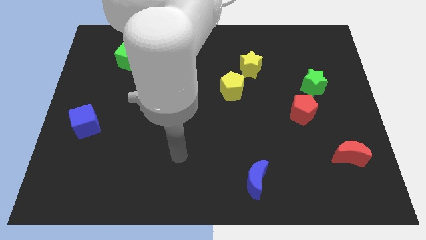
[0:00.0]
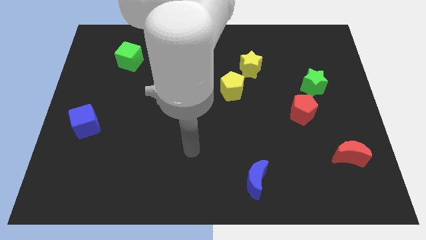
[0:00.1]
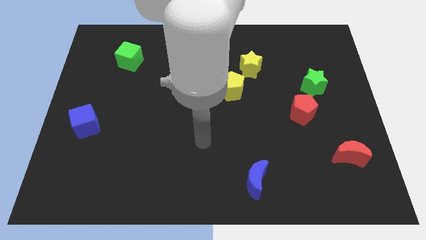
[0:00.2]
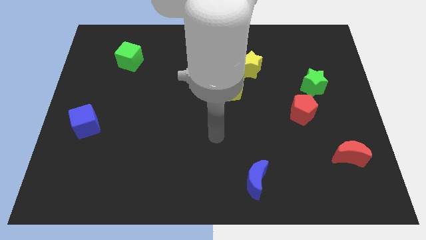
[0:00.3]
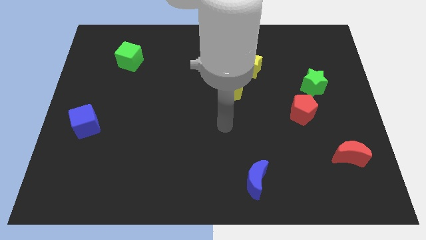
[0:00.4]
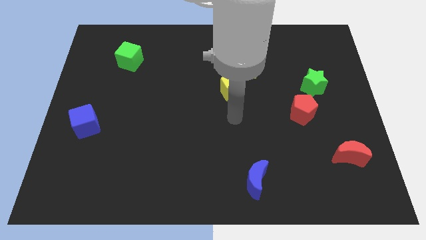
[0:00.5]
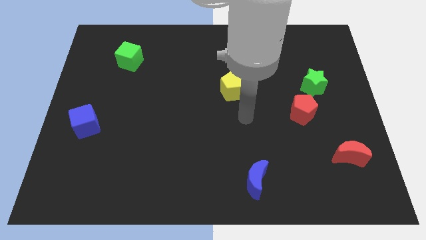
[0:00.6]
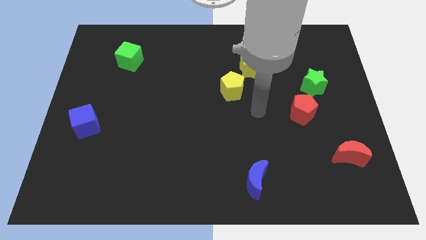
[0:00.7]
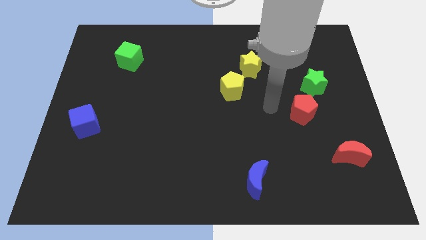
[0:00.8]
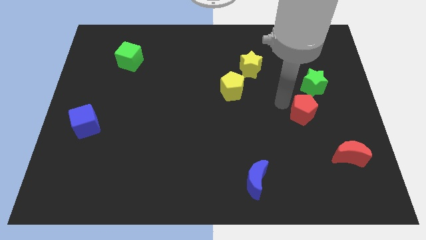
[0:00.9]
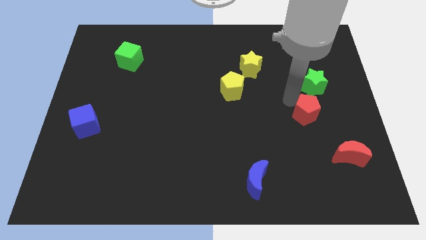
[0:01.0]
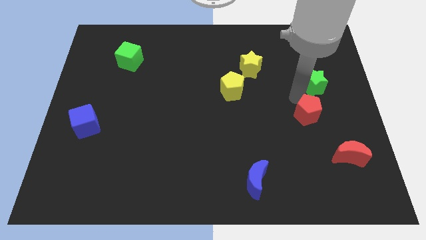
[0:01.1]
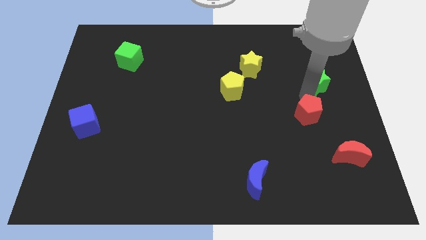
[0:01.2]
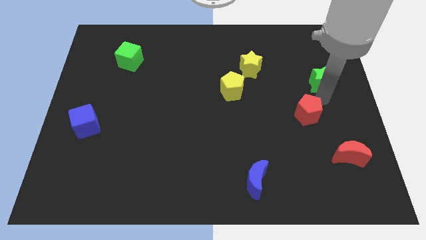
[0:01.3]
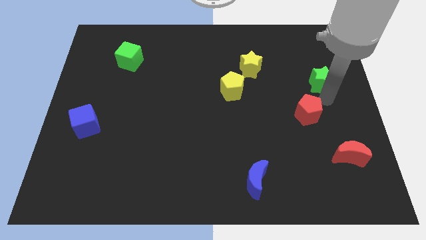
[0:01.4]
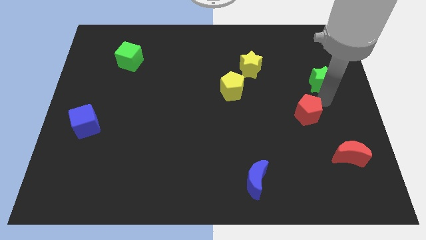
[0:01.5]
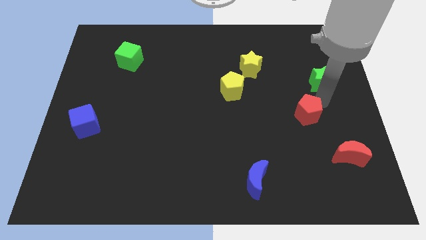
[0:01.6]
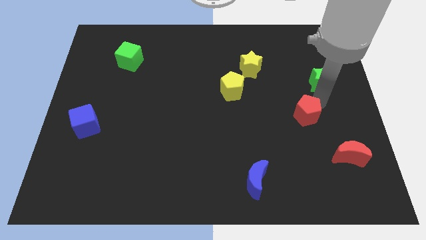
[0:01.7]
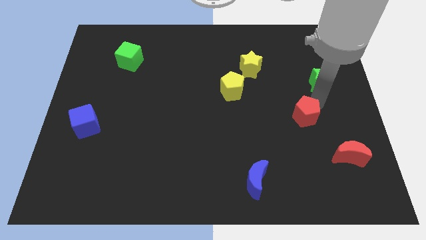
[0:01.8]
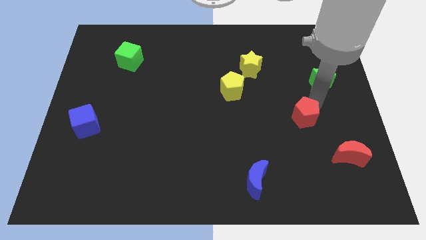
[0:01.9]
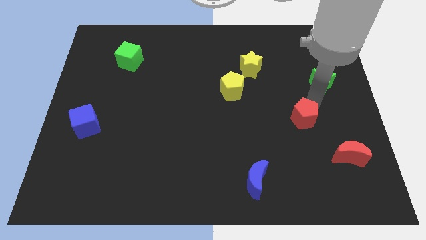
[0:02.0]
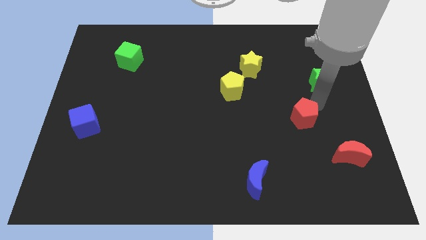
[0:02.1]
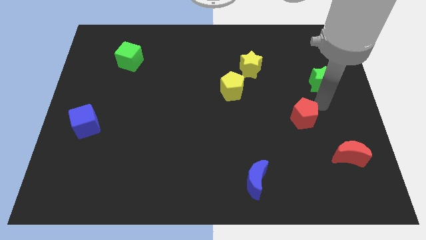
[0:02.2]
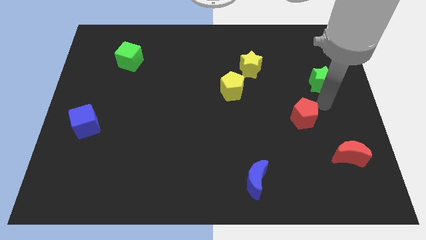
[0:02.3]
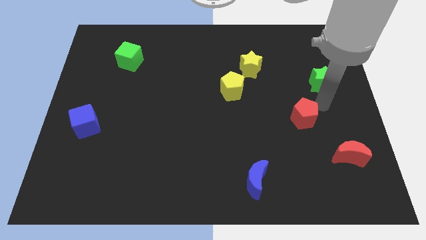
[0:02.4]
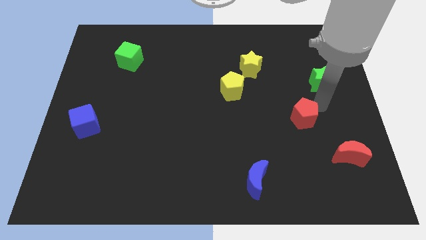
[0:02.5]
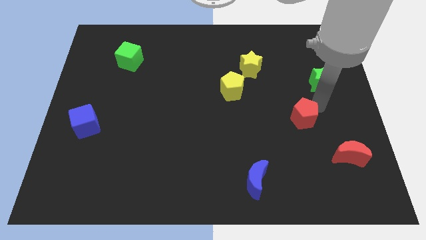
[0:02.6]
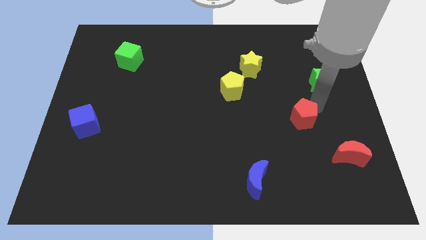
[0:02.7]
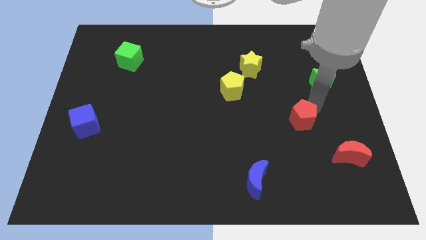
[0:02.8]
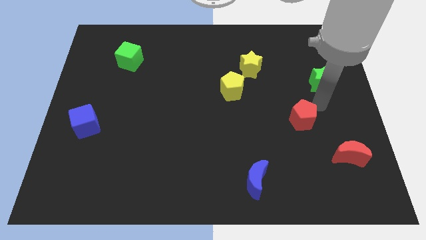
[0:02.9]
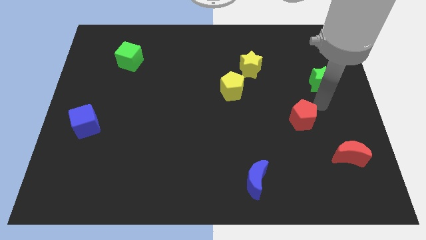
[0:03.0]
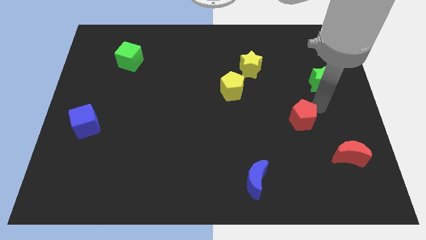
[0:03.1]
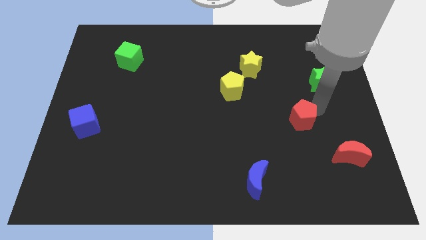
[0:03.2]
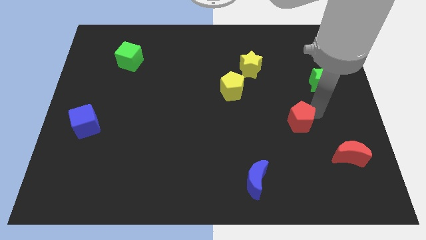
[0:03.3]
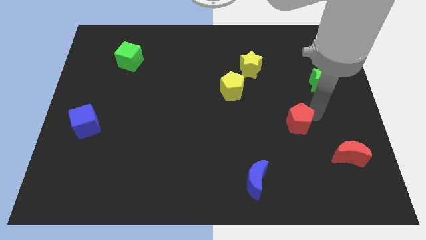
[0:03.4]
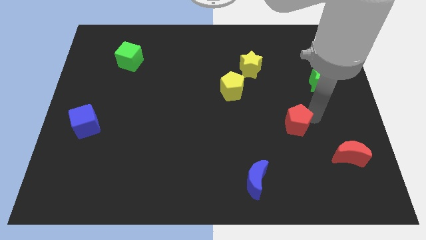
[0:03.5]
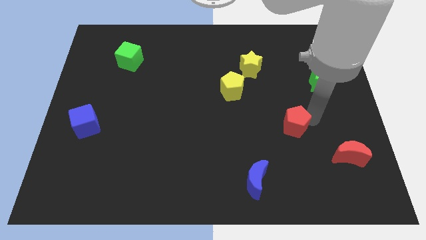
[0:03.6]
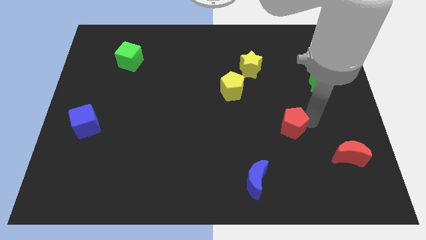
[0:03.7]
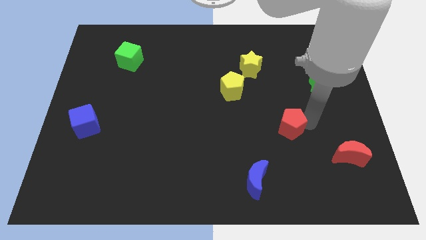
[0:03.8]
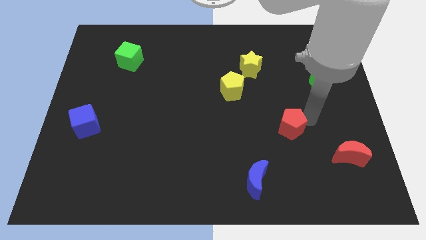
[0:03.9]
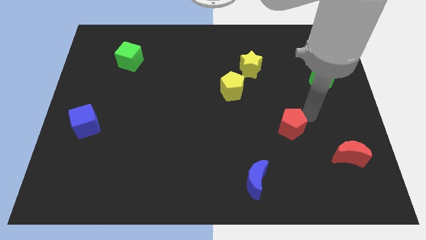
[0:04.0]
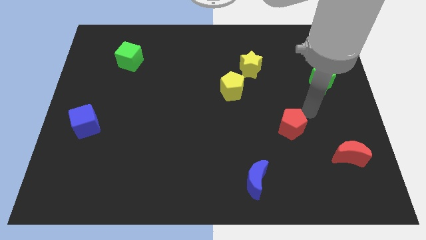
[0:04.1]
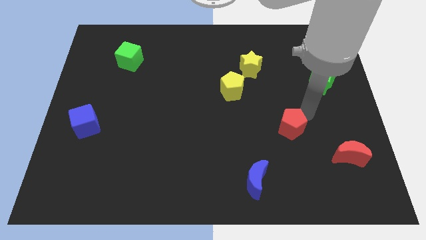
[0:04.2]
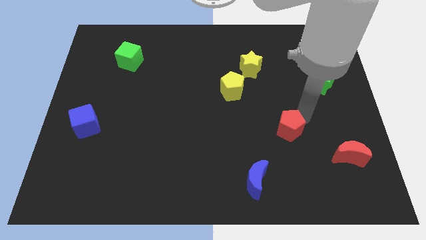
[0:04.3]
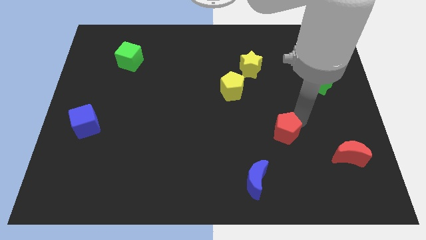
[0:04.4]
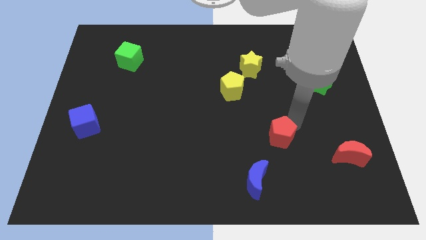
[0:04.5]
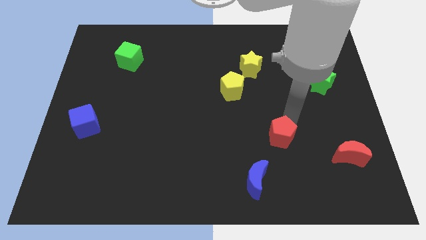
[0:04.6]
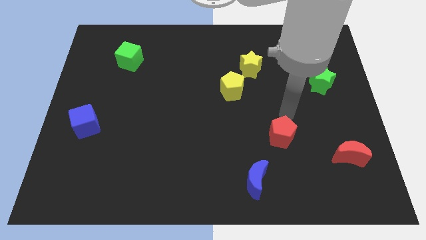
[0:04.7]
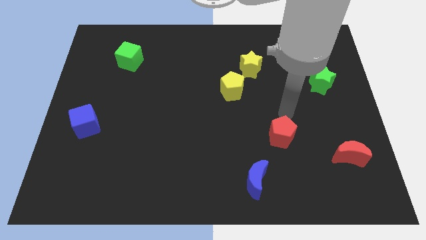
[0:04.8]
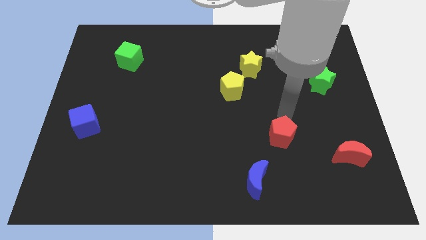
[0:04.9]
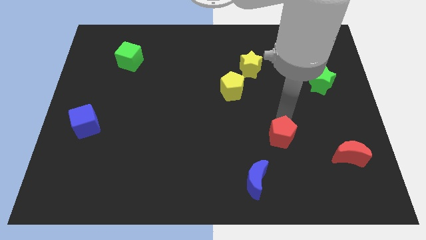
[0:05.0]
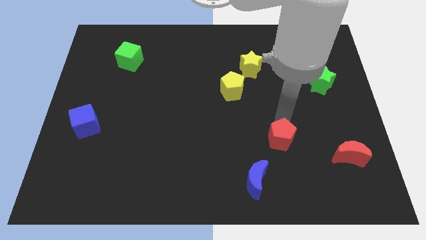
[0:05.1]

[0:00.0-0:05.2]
slide the red pentagon to the top right of the blue moon

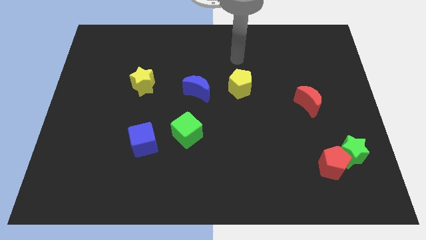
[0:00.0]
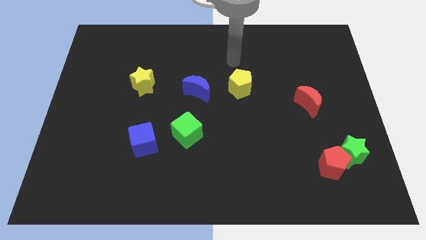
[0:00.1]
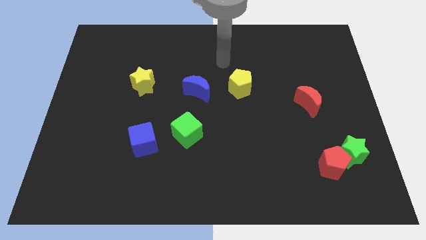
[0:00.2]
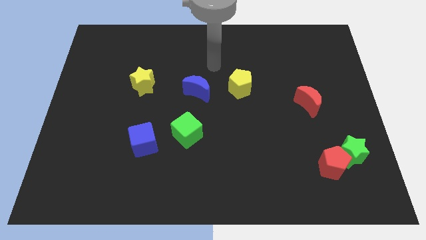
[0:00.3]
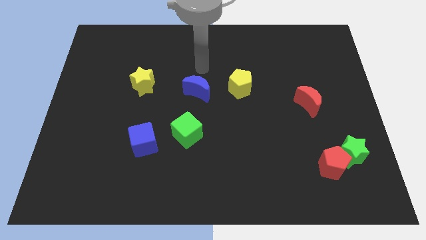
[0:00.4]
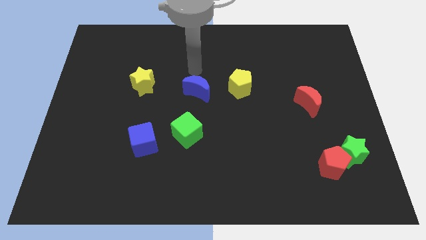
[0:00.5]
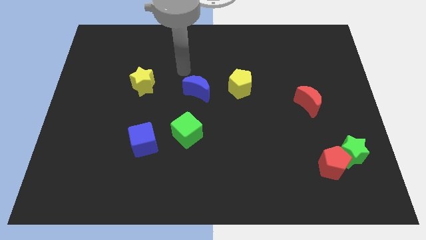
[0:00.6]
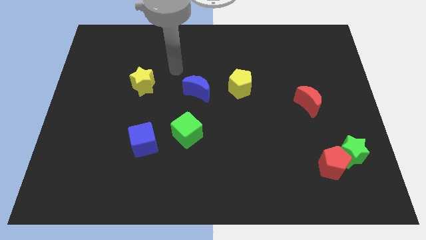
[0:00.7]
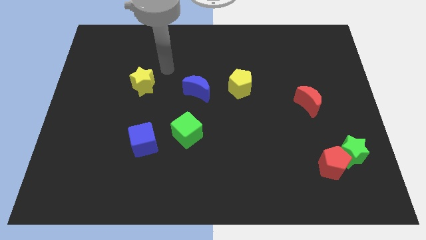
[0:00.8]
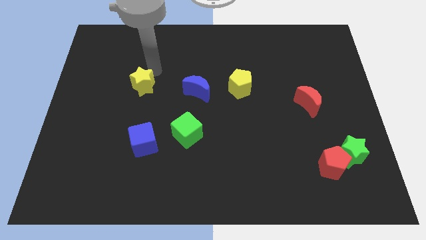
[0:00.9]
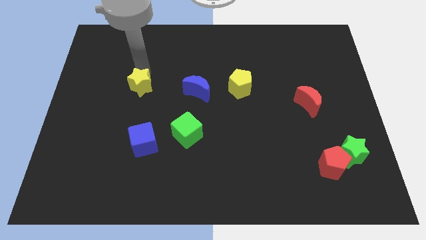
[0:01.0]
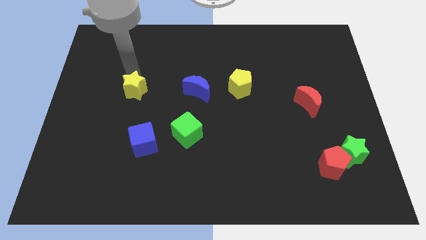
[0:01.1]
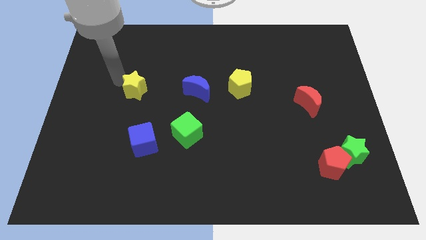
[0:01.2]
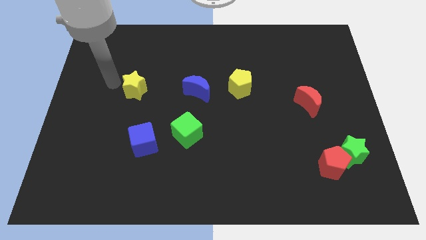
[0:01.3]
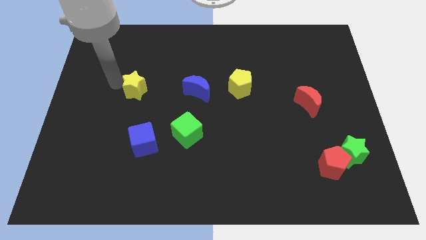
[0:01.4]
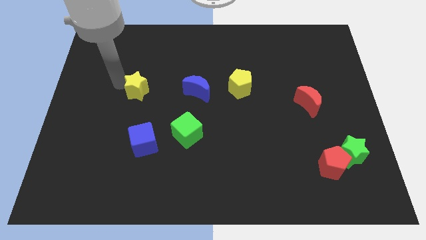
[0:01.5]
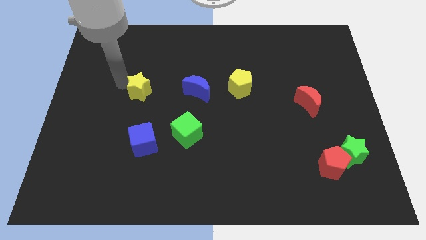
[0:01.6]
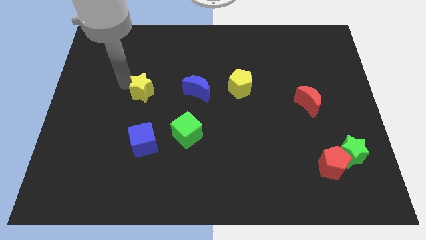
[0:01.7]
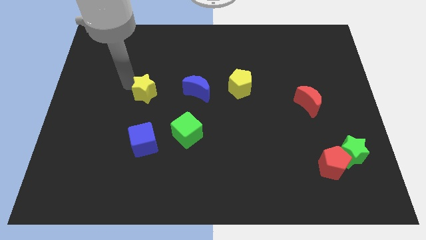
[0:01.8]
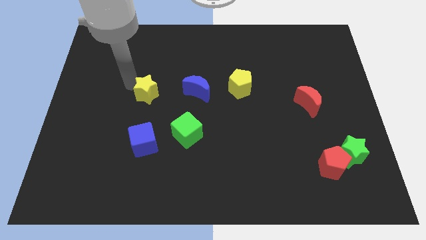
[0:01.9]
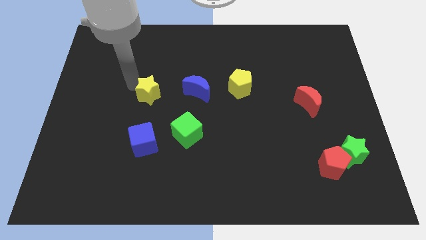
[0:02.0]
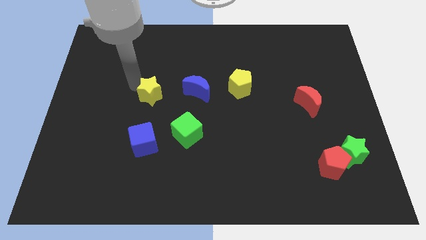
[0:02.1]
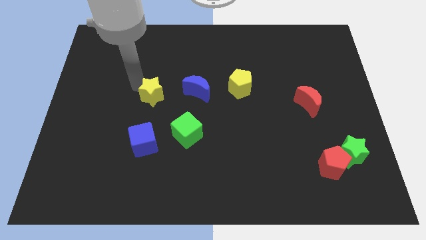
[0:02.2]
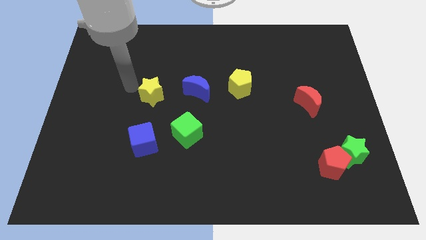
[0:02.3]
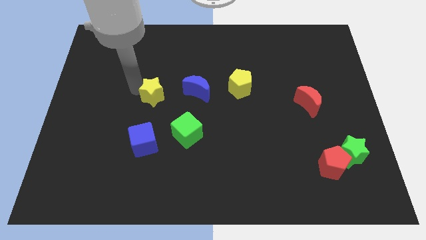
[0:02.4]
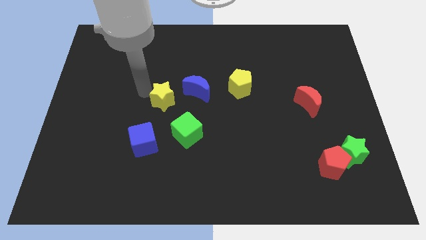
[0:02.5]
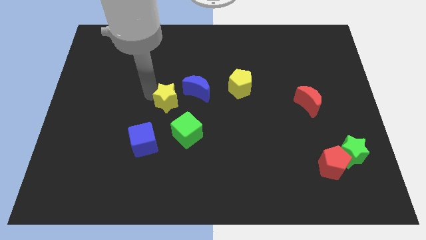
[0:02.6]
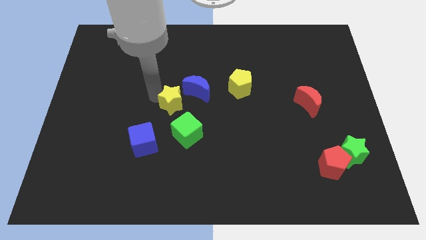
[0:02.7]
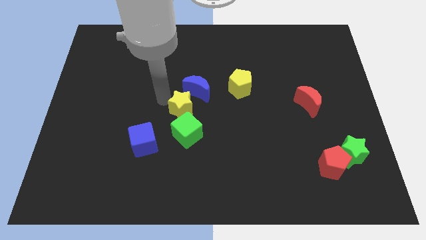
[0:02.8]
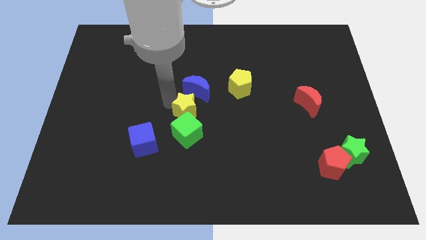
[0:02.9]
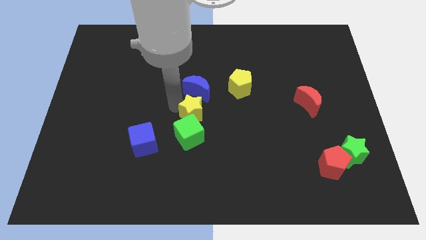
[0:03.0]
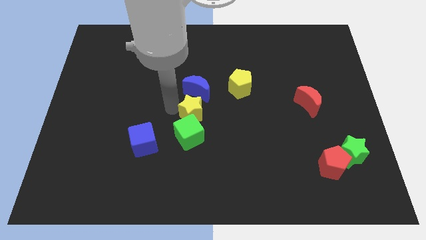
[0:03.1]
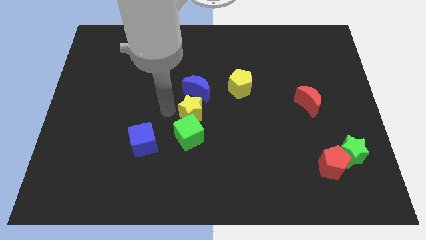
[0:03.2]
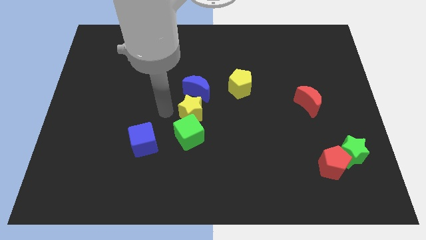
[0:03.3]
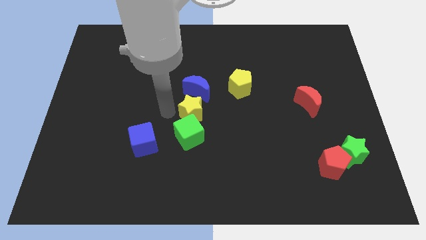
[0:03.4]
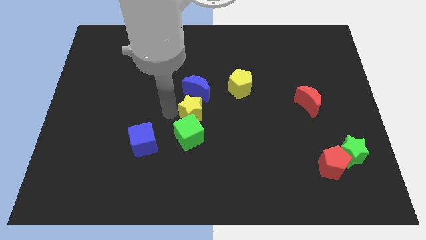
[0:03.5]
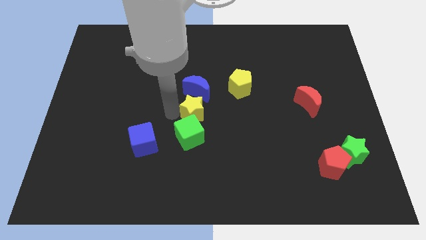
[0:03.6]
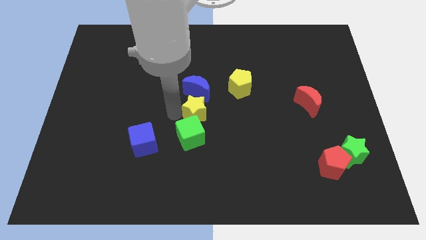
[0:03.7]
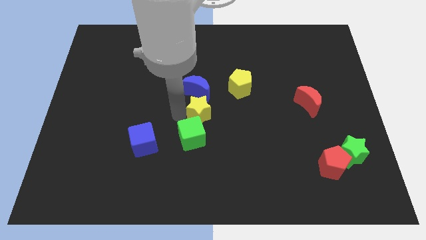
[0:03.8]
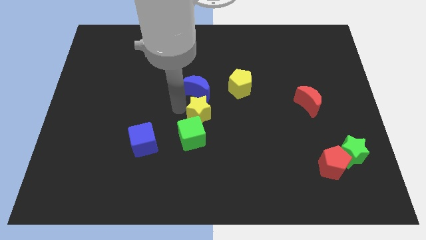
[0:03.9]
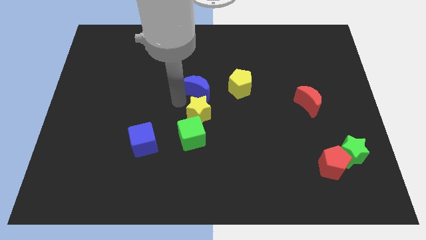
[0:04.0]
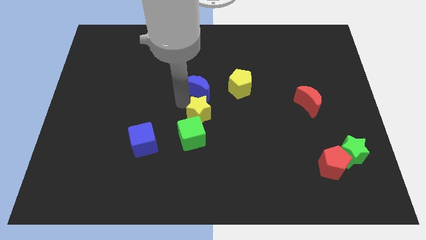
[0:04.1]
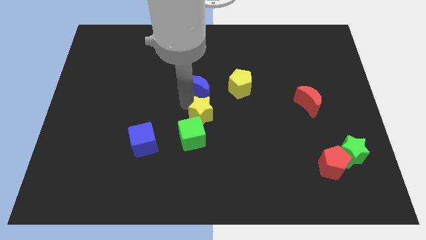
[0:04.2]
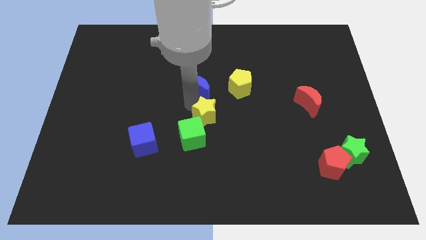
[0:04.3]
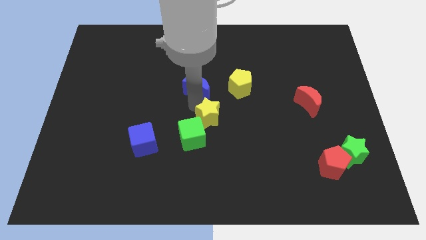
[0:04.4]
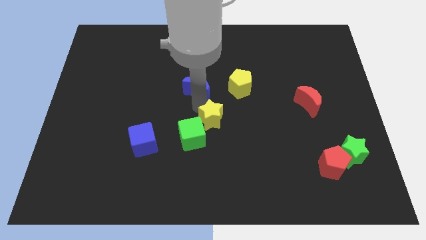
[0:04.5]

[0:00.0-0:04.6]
move the yellow star to the right of the green cube
